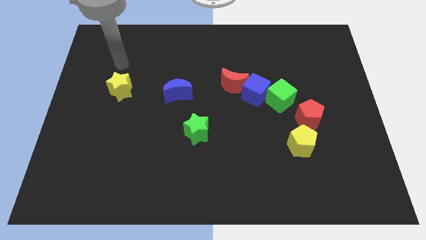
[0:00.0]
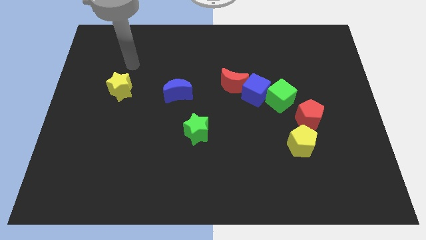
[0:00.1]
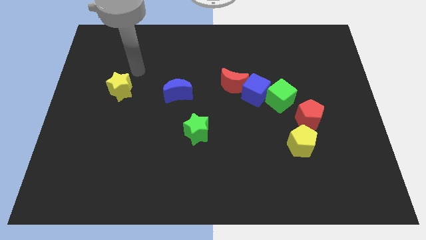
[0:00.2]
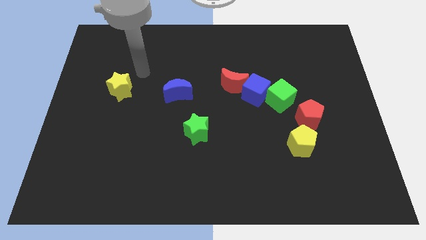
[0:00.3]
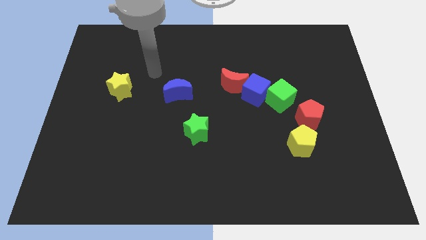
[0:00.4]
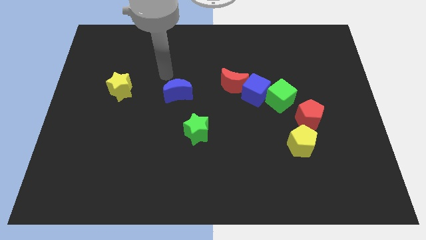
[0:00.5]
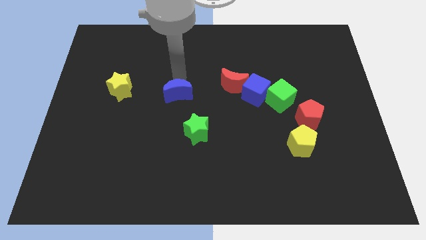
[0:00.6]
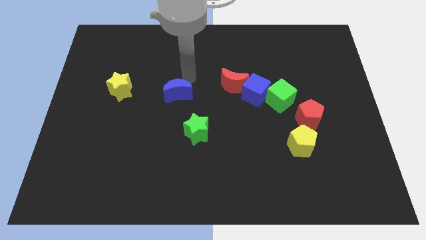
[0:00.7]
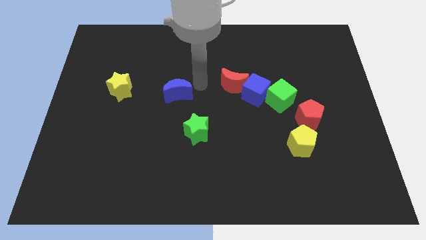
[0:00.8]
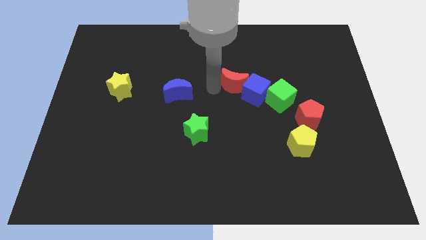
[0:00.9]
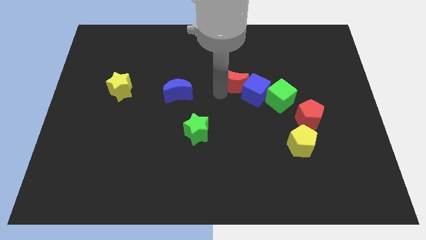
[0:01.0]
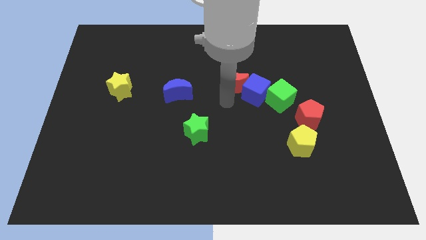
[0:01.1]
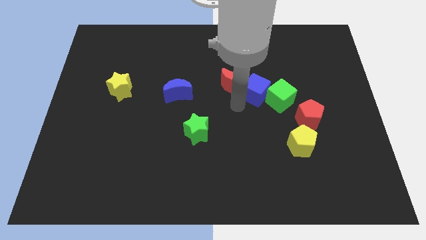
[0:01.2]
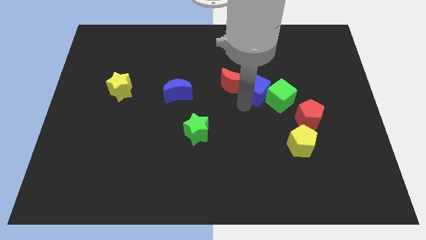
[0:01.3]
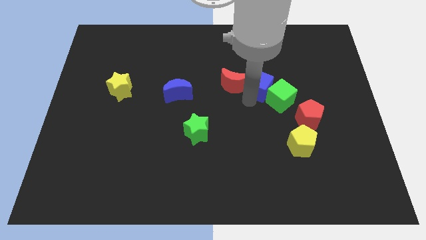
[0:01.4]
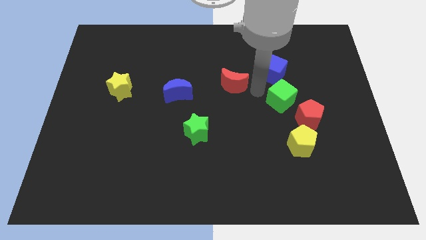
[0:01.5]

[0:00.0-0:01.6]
pull the red moon apart from the blue cube

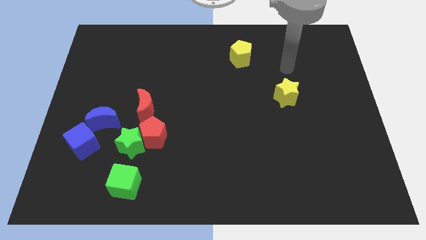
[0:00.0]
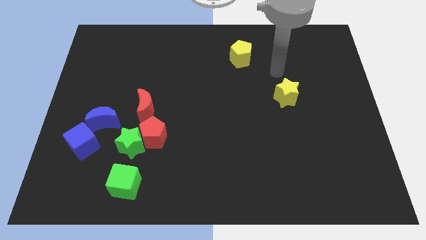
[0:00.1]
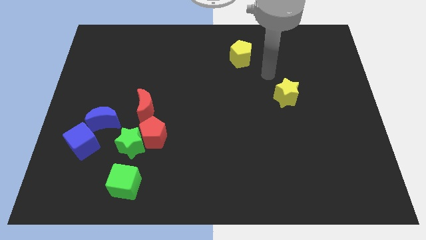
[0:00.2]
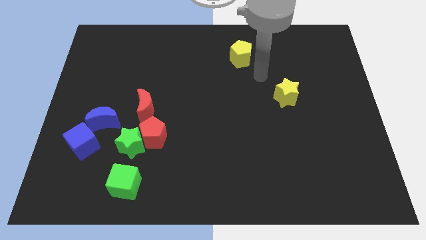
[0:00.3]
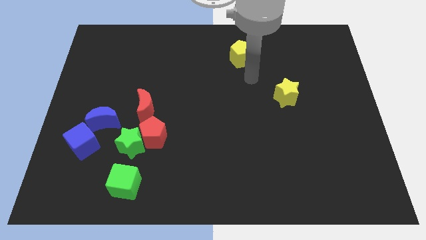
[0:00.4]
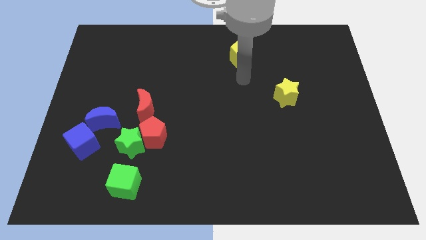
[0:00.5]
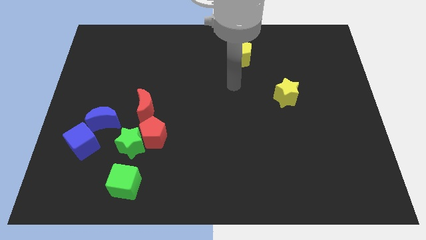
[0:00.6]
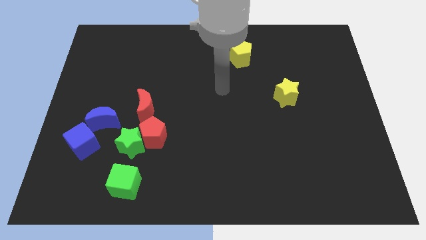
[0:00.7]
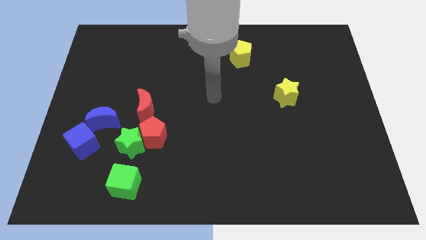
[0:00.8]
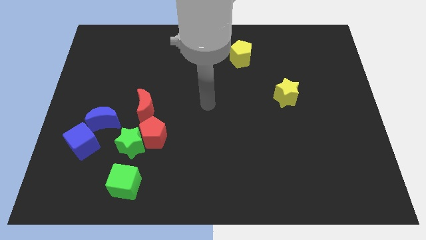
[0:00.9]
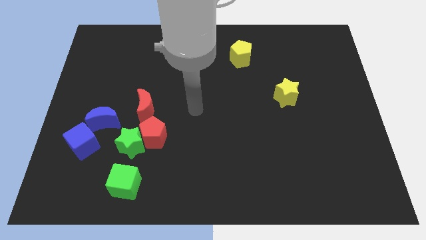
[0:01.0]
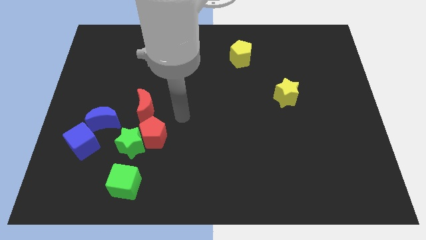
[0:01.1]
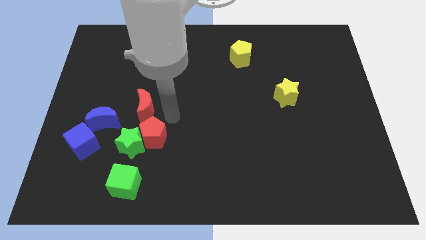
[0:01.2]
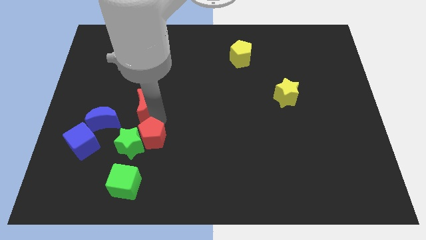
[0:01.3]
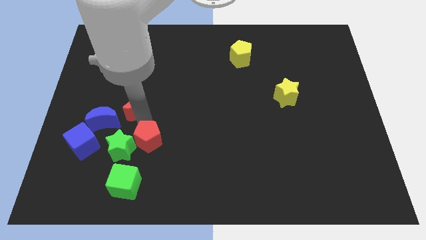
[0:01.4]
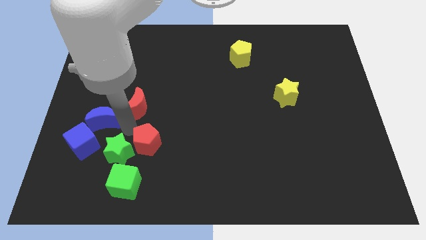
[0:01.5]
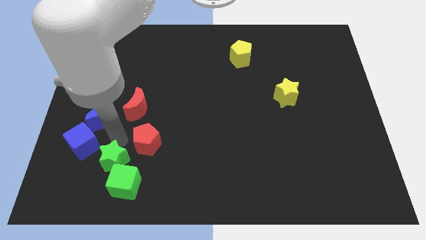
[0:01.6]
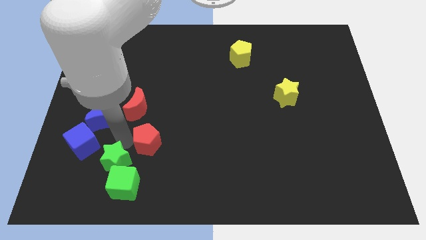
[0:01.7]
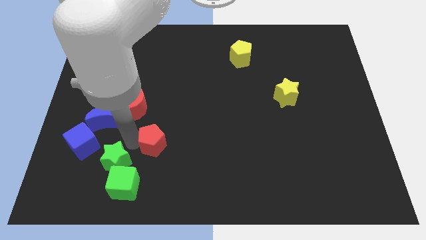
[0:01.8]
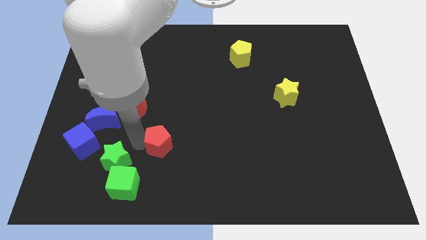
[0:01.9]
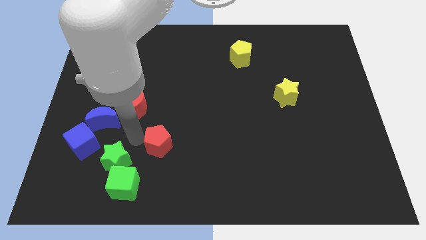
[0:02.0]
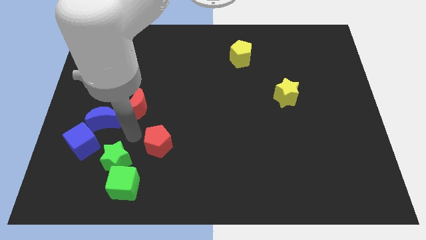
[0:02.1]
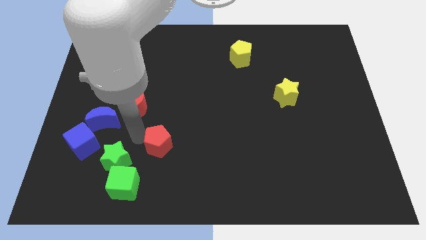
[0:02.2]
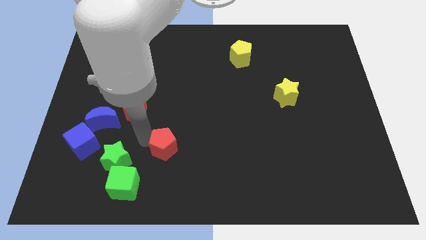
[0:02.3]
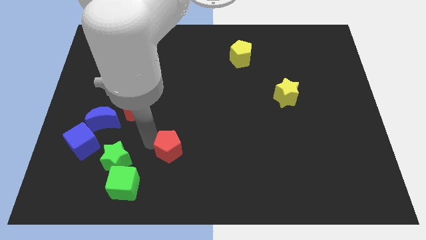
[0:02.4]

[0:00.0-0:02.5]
pull the red pentagon apart from the green star and red moon

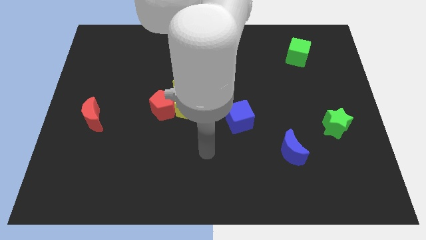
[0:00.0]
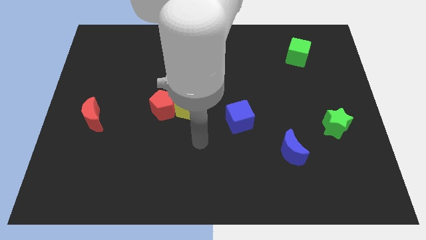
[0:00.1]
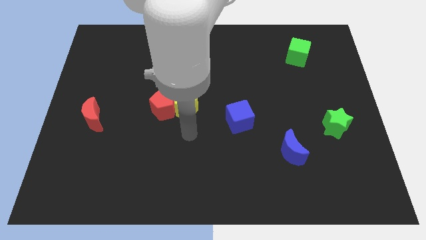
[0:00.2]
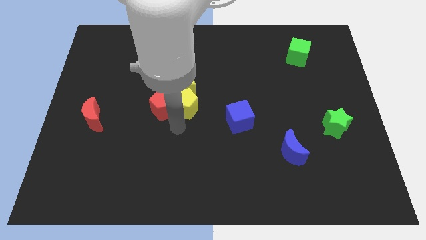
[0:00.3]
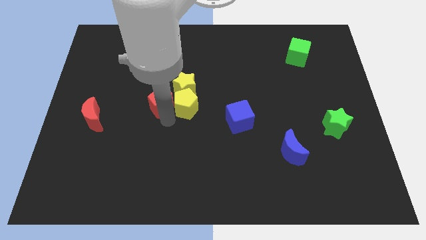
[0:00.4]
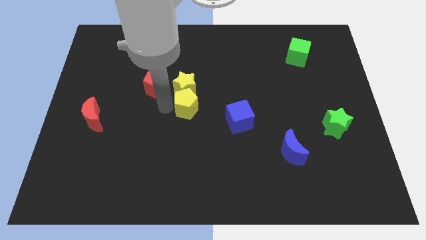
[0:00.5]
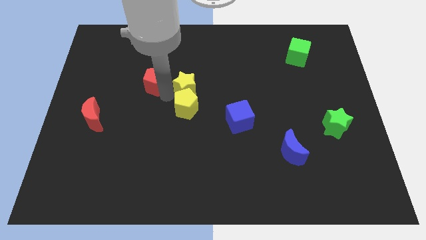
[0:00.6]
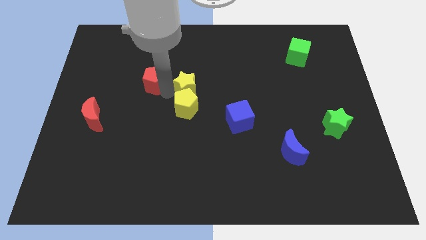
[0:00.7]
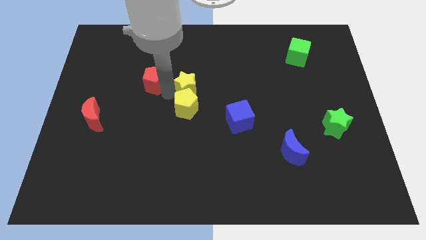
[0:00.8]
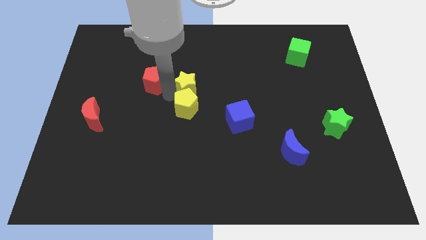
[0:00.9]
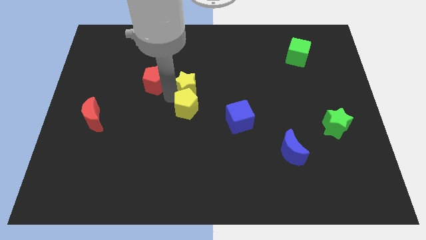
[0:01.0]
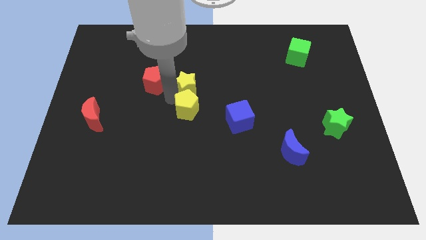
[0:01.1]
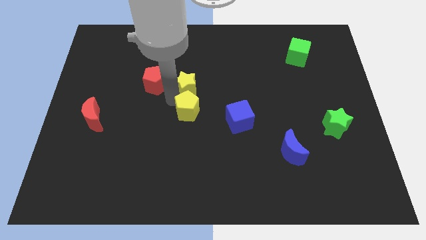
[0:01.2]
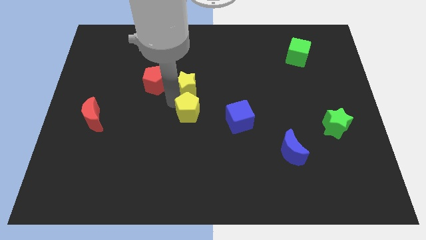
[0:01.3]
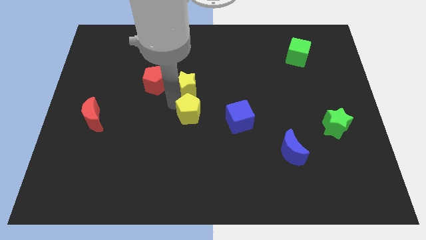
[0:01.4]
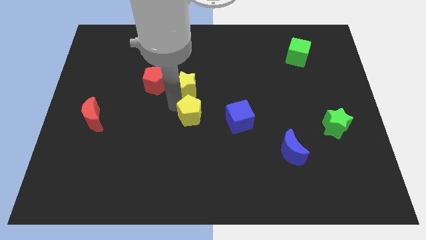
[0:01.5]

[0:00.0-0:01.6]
move the yellow pentagon away from the red pentagon and yellow star

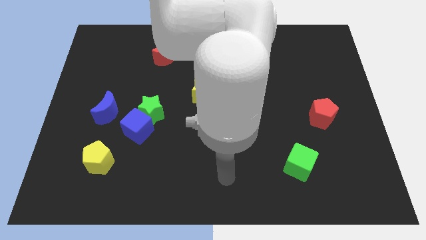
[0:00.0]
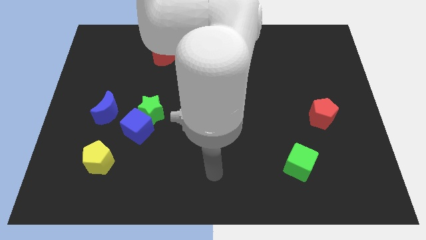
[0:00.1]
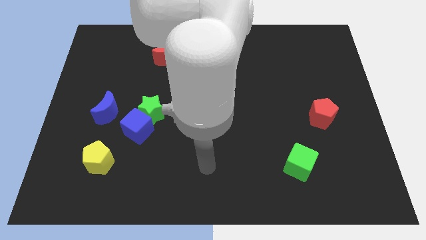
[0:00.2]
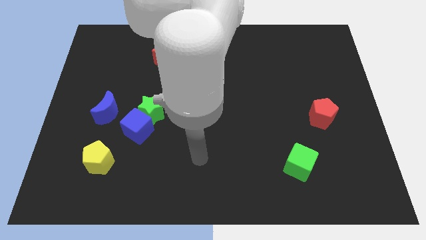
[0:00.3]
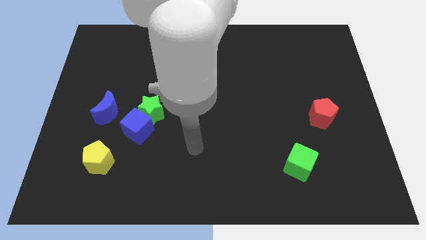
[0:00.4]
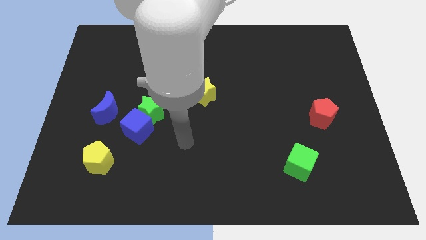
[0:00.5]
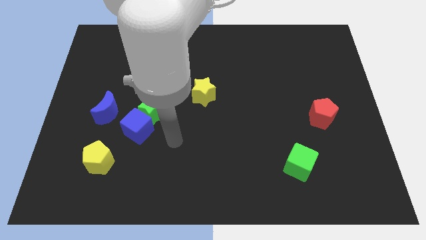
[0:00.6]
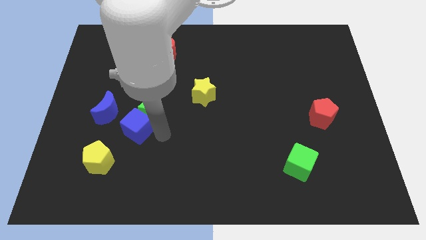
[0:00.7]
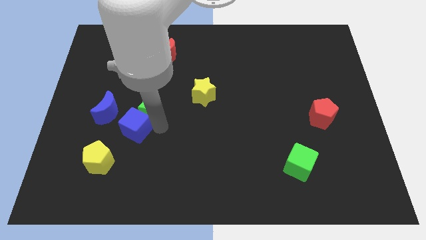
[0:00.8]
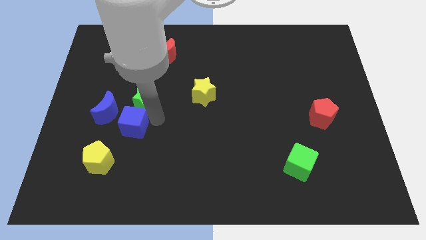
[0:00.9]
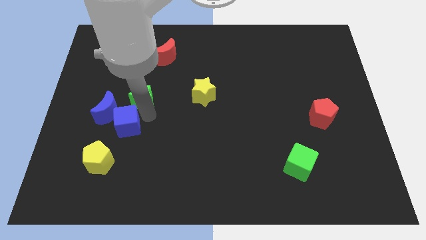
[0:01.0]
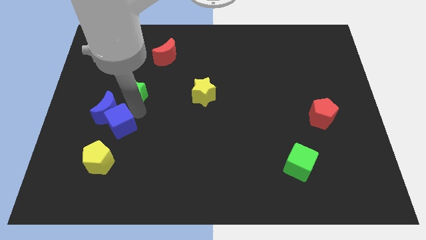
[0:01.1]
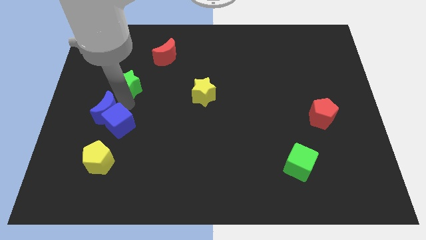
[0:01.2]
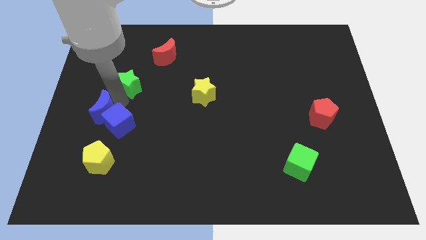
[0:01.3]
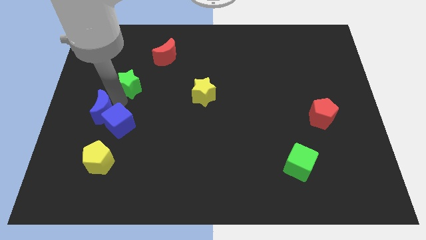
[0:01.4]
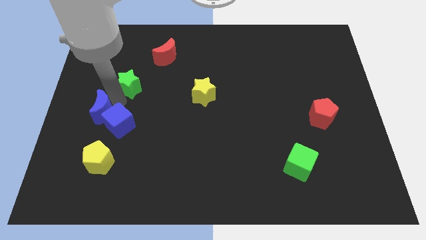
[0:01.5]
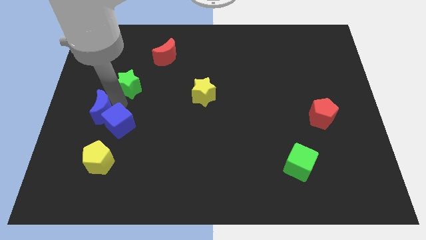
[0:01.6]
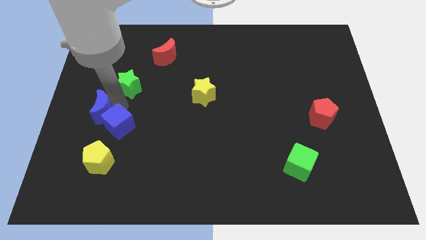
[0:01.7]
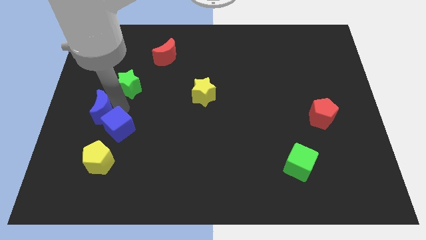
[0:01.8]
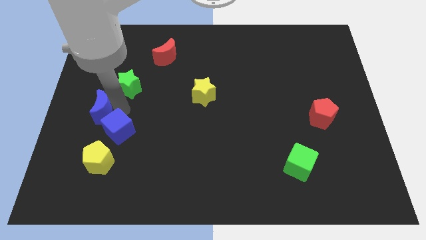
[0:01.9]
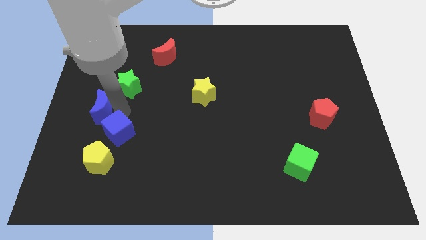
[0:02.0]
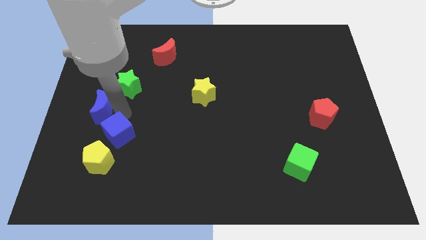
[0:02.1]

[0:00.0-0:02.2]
pull the blue cube apart from the green star and blue moon

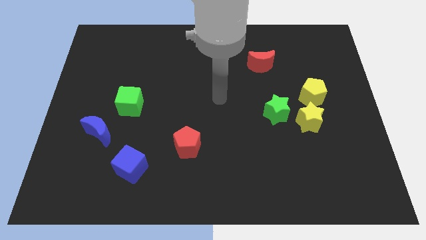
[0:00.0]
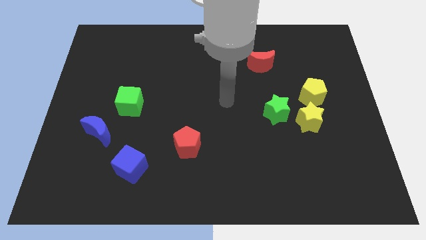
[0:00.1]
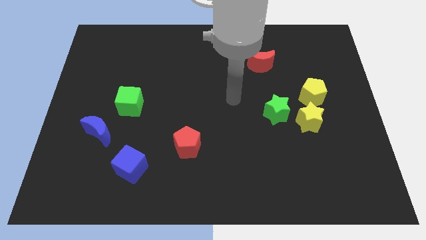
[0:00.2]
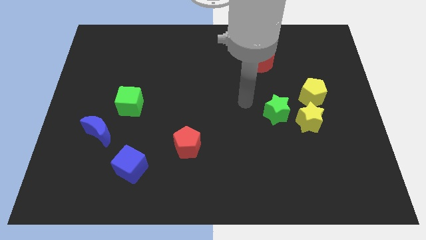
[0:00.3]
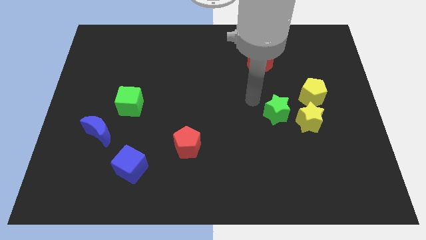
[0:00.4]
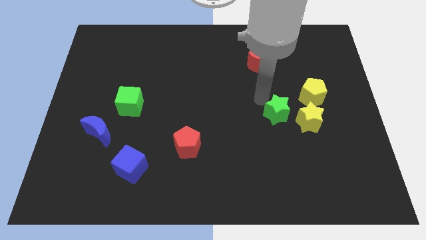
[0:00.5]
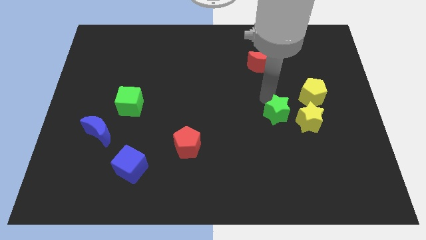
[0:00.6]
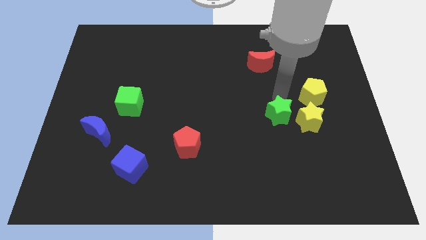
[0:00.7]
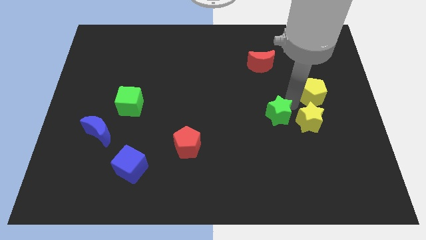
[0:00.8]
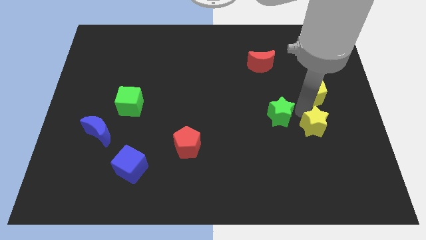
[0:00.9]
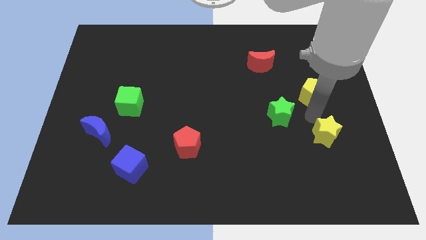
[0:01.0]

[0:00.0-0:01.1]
move the yellow pentagon away from the yellow star

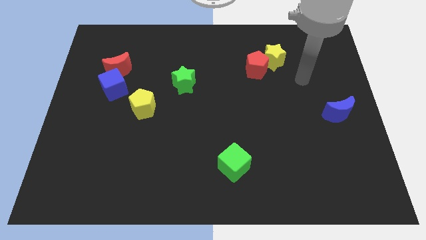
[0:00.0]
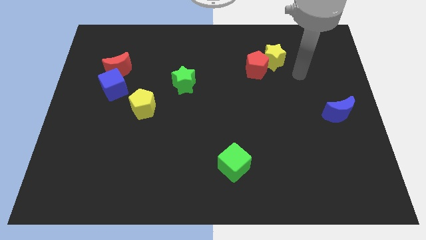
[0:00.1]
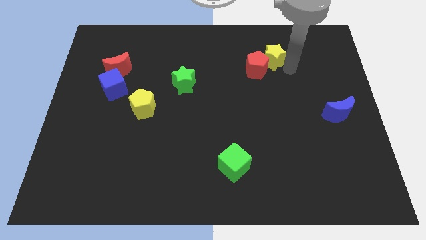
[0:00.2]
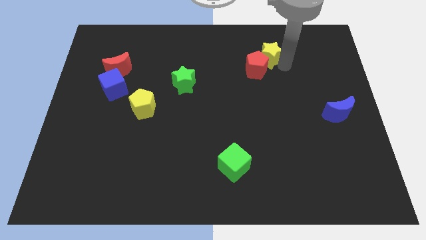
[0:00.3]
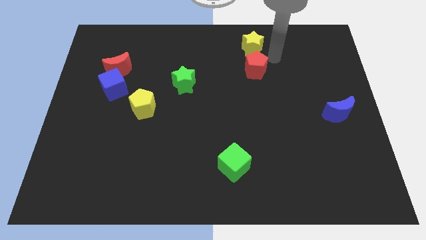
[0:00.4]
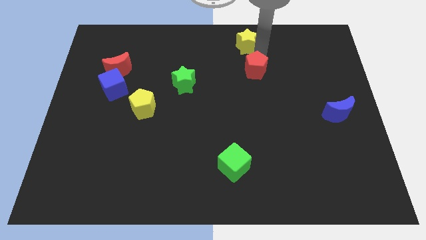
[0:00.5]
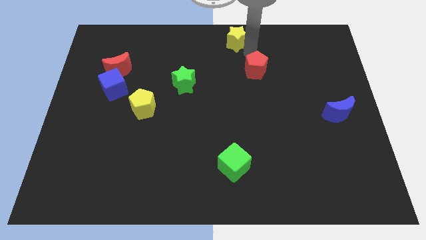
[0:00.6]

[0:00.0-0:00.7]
move the red pentagon away from the yellow star
